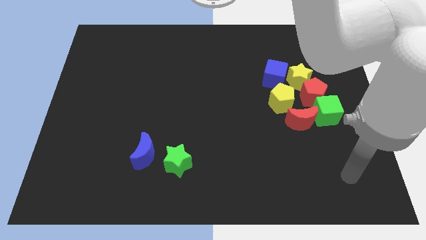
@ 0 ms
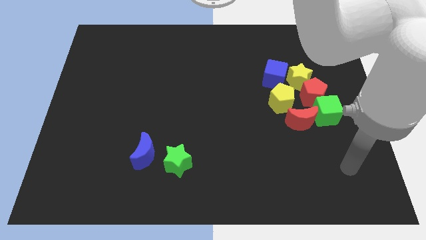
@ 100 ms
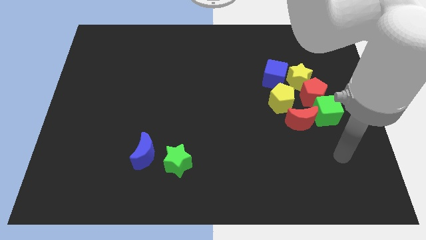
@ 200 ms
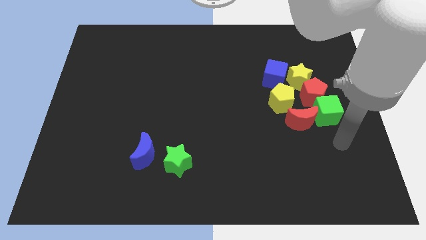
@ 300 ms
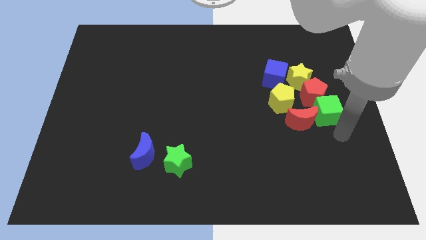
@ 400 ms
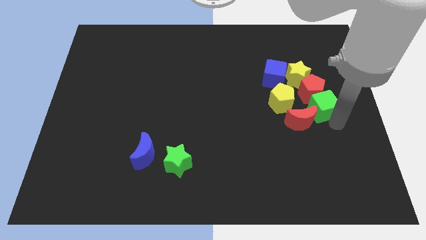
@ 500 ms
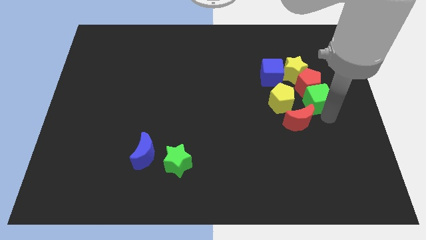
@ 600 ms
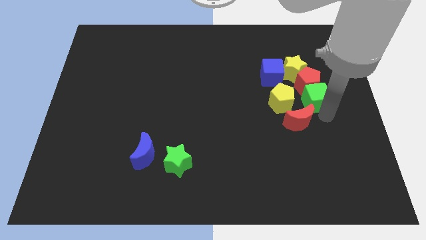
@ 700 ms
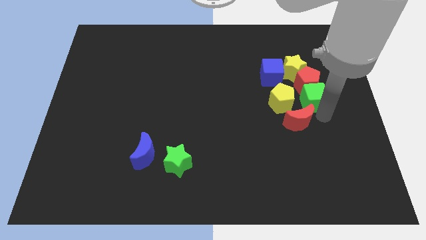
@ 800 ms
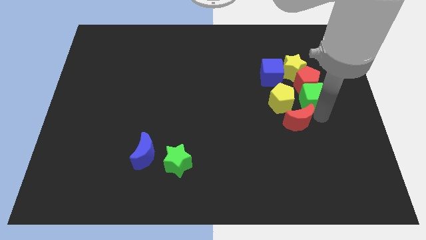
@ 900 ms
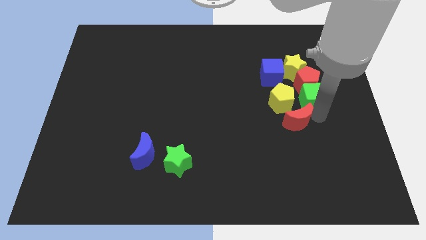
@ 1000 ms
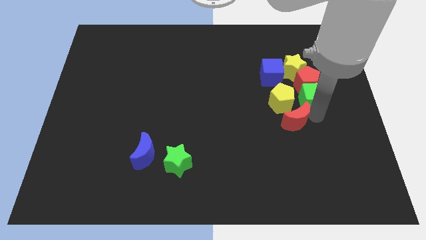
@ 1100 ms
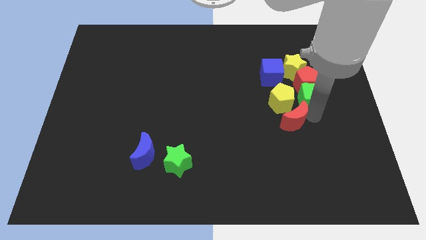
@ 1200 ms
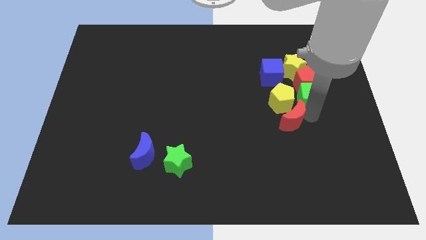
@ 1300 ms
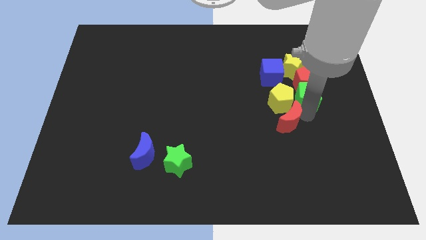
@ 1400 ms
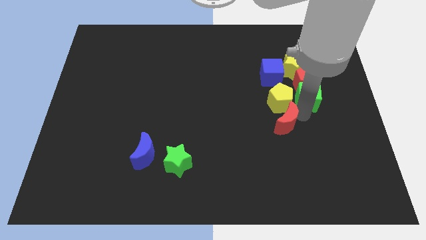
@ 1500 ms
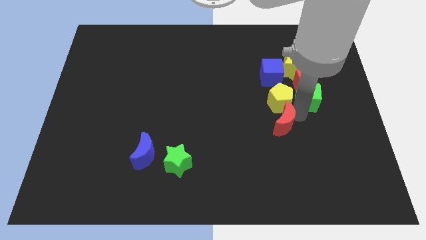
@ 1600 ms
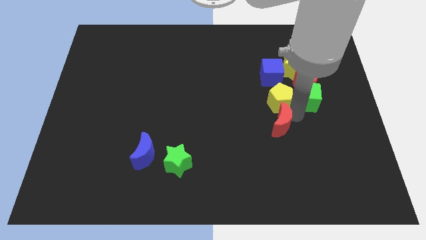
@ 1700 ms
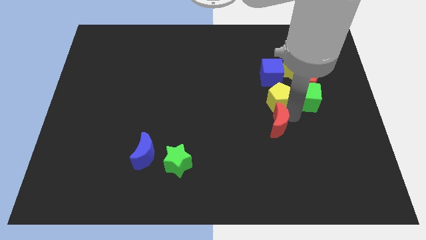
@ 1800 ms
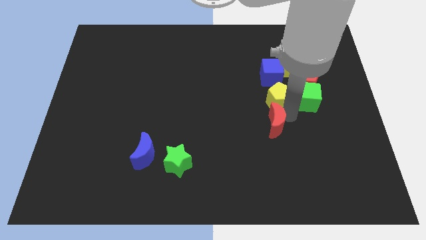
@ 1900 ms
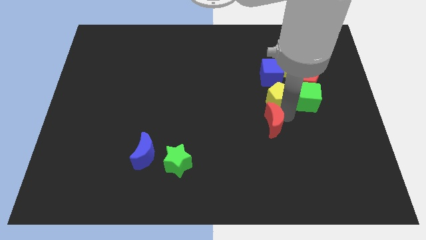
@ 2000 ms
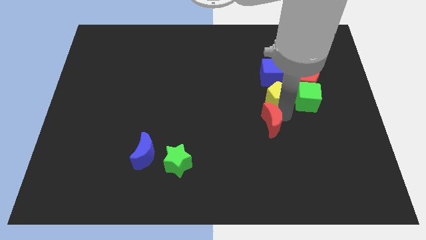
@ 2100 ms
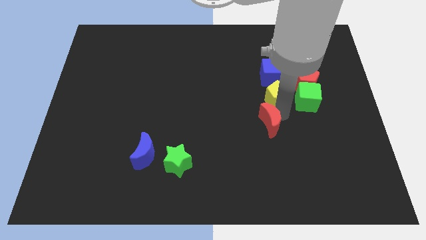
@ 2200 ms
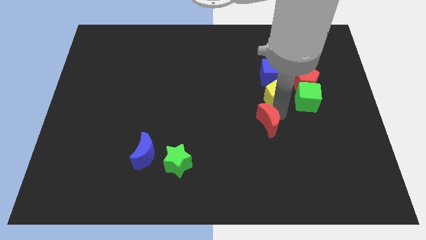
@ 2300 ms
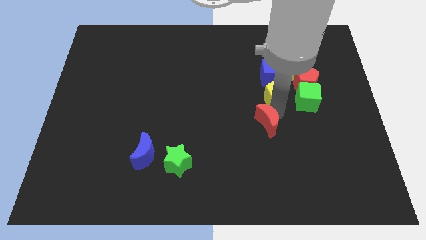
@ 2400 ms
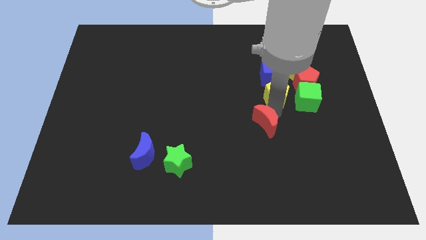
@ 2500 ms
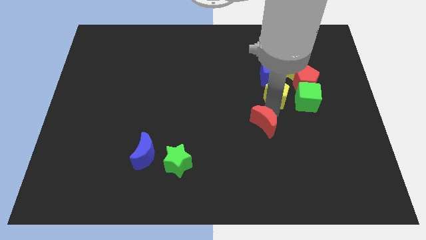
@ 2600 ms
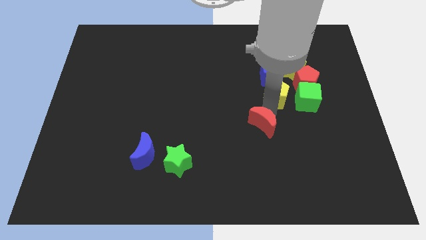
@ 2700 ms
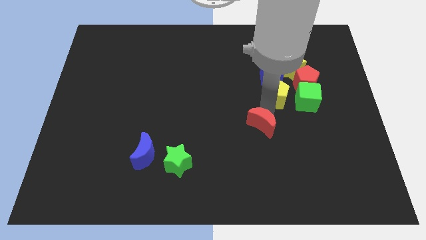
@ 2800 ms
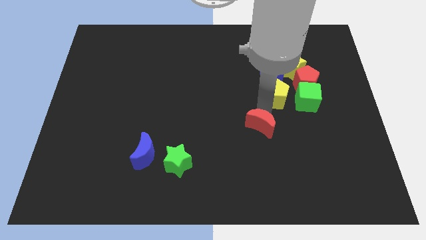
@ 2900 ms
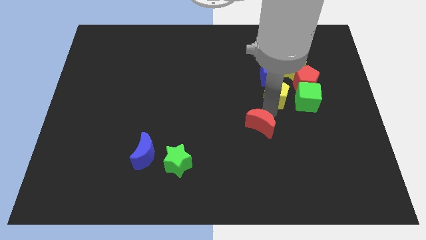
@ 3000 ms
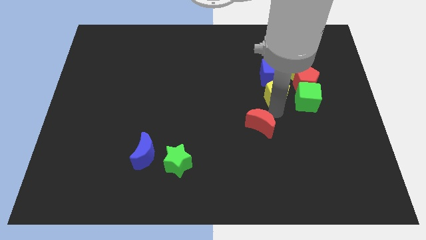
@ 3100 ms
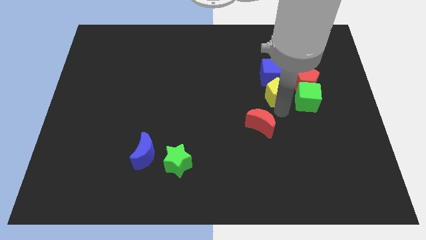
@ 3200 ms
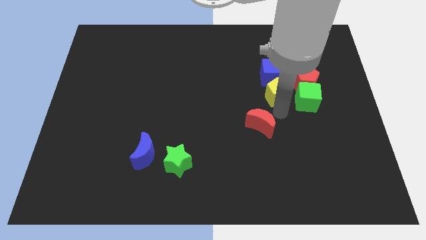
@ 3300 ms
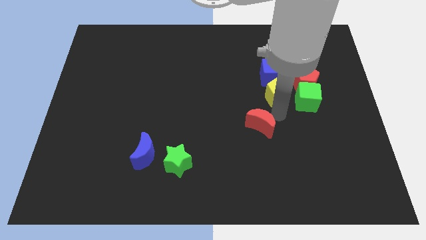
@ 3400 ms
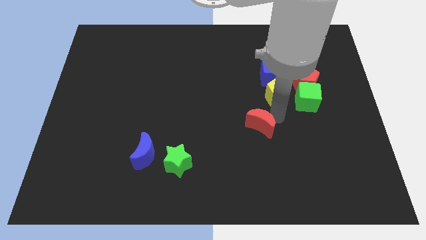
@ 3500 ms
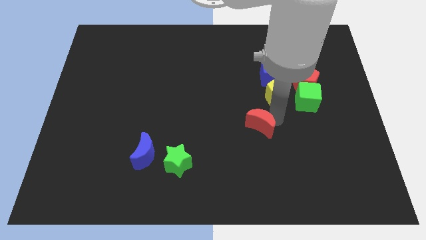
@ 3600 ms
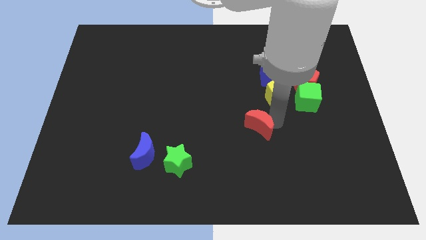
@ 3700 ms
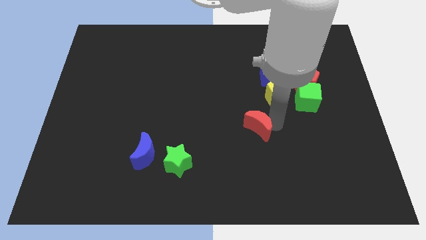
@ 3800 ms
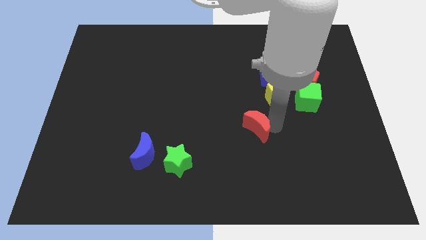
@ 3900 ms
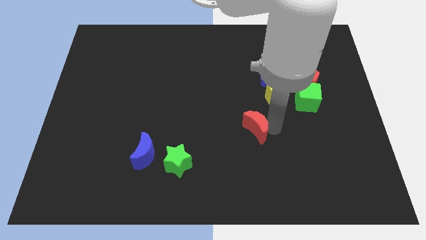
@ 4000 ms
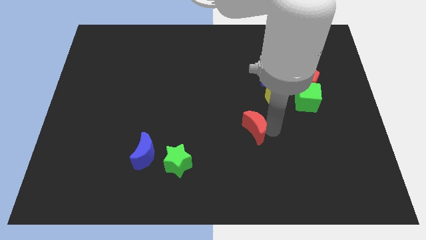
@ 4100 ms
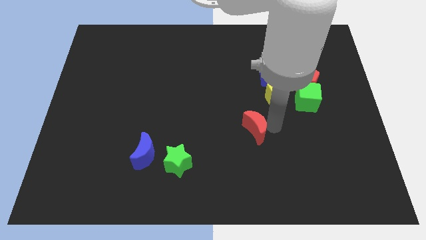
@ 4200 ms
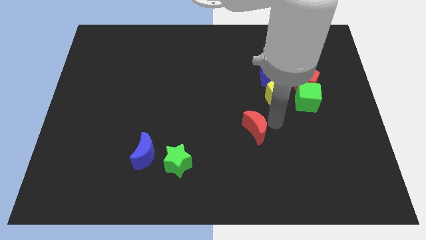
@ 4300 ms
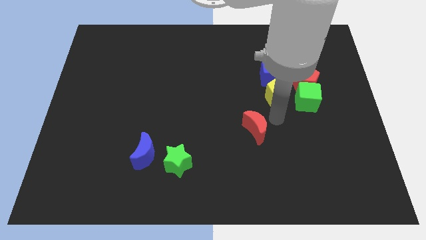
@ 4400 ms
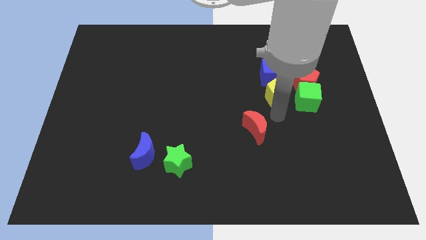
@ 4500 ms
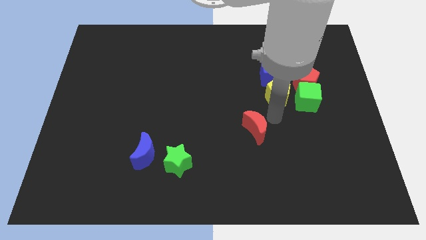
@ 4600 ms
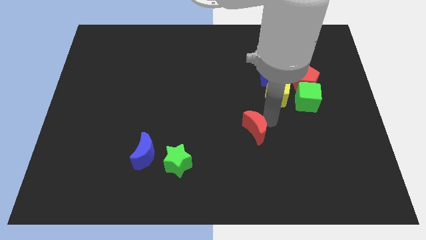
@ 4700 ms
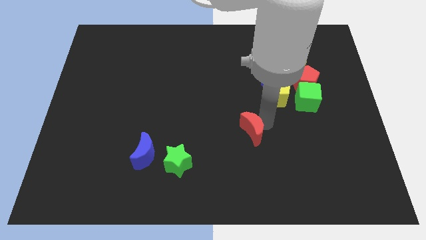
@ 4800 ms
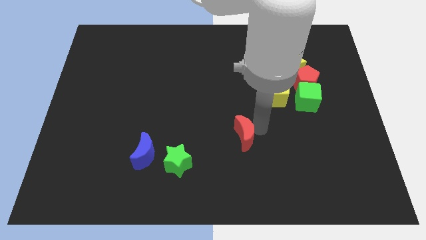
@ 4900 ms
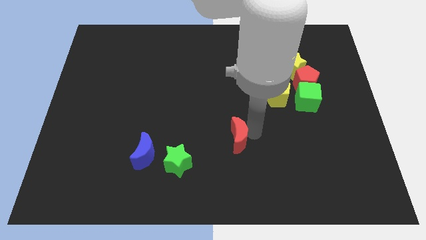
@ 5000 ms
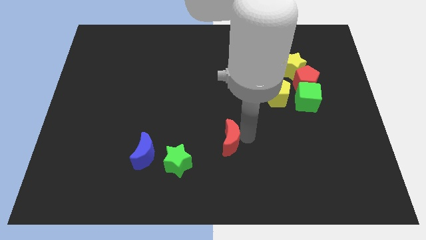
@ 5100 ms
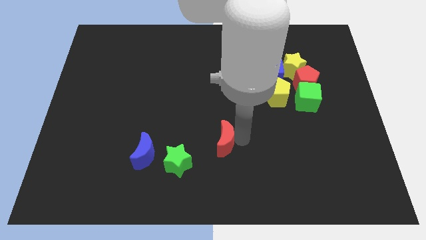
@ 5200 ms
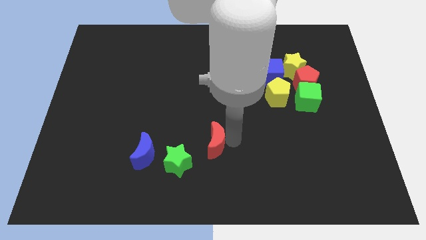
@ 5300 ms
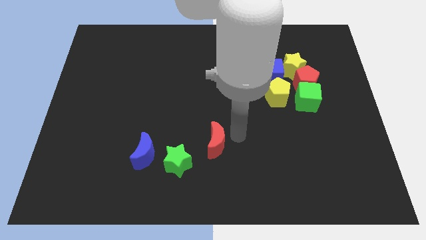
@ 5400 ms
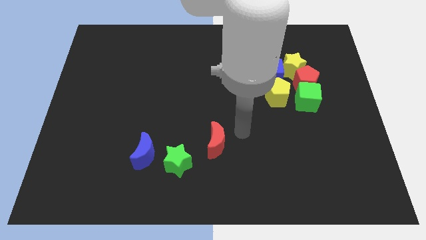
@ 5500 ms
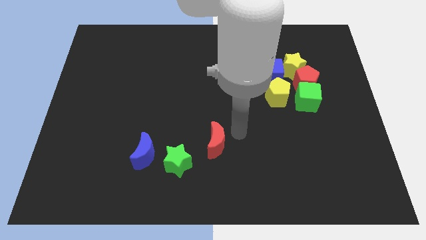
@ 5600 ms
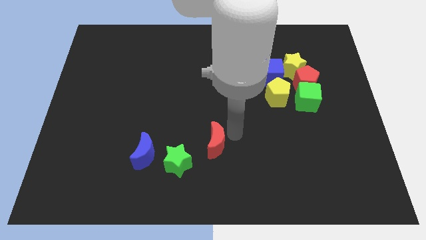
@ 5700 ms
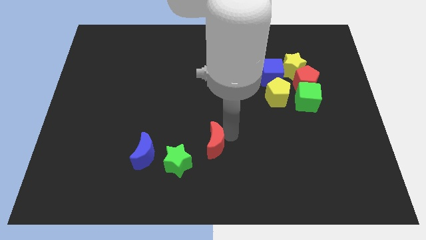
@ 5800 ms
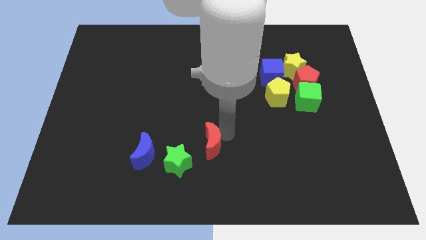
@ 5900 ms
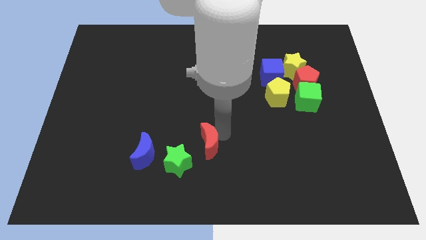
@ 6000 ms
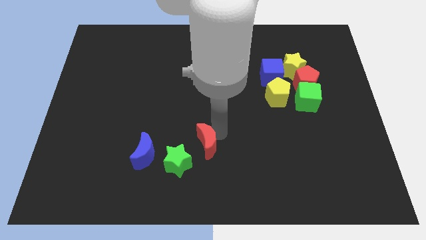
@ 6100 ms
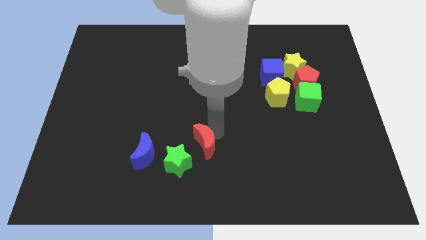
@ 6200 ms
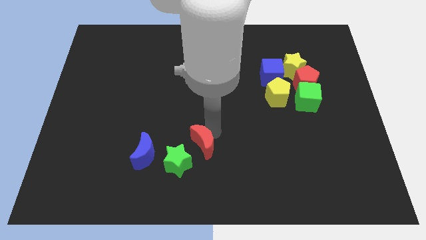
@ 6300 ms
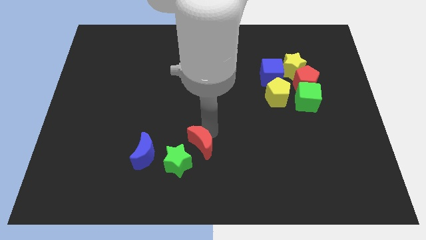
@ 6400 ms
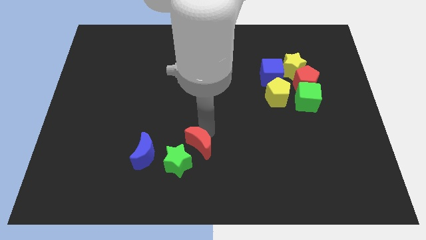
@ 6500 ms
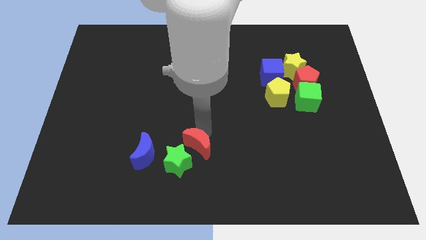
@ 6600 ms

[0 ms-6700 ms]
move the red moon next to the green star
